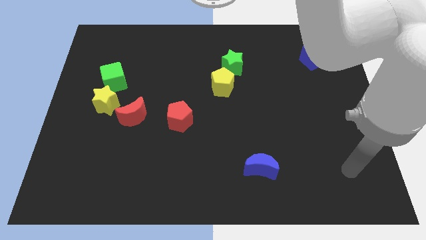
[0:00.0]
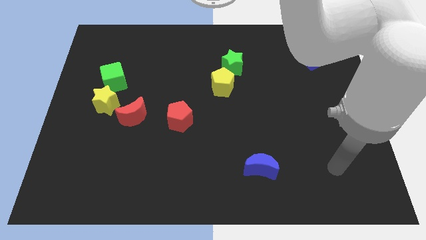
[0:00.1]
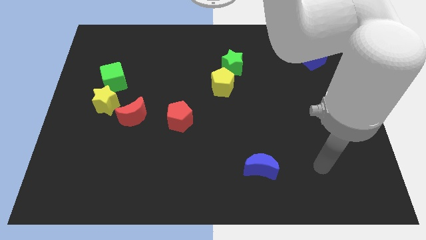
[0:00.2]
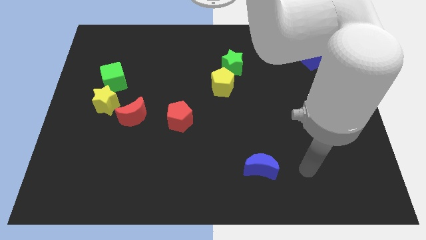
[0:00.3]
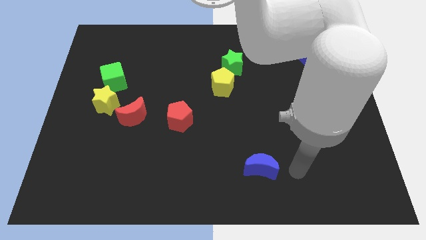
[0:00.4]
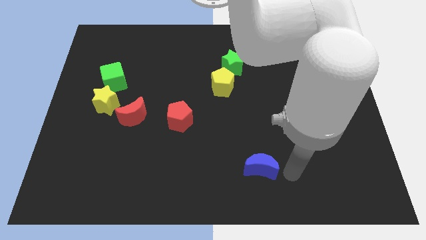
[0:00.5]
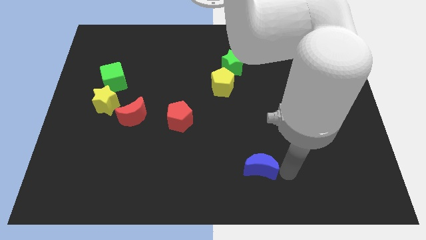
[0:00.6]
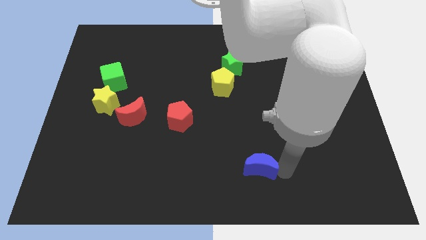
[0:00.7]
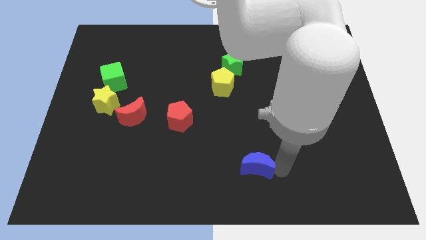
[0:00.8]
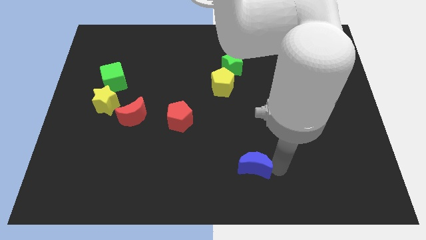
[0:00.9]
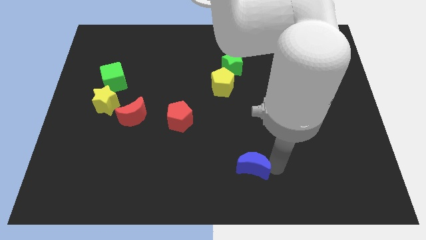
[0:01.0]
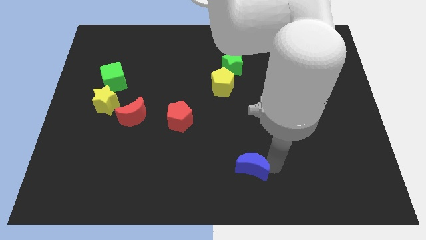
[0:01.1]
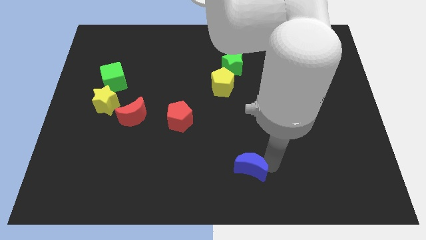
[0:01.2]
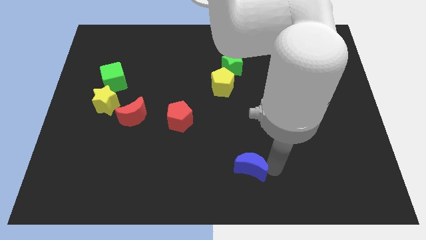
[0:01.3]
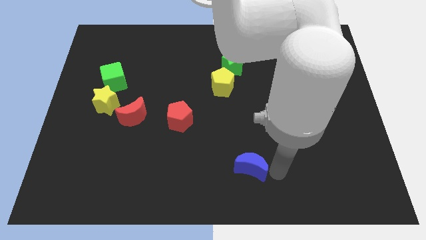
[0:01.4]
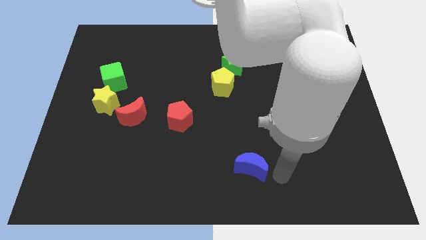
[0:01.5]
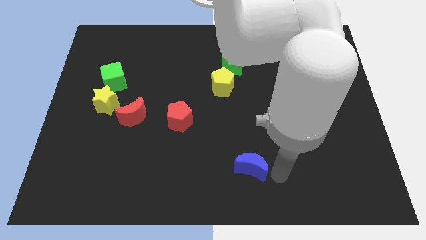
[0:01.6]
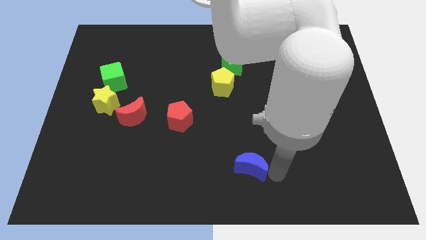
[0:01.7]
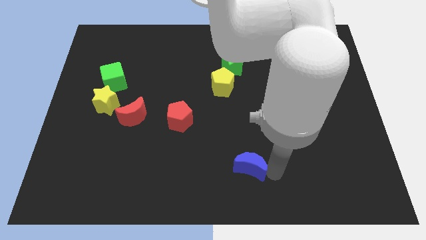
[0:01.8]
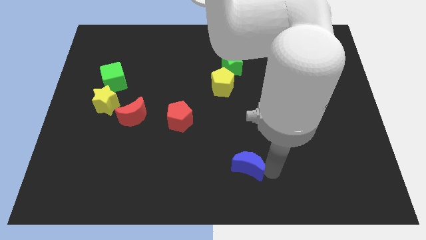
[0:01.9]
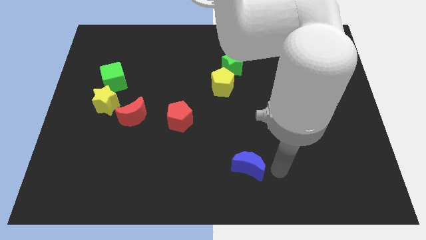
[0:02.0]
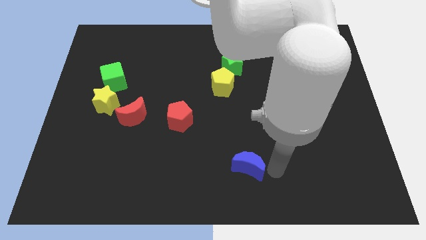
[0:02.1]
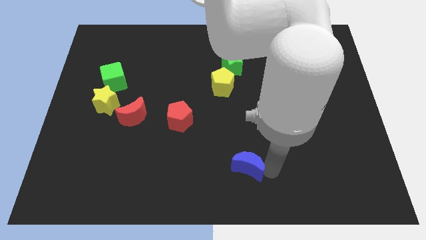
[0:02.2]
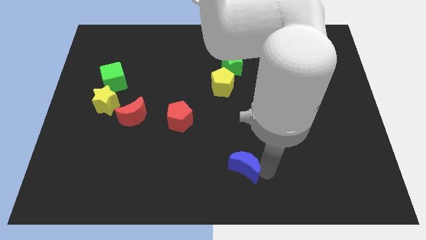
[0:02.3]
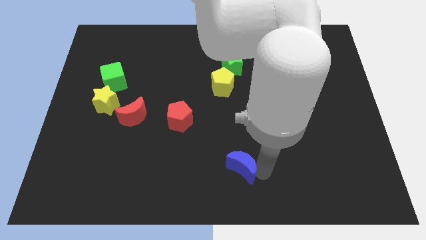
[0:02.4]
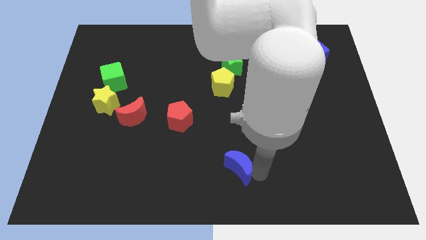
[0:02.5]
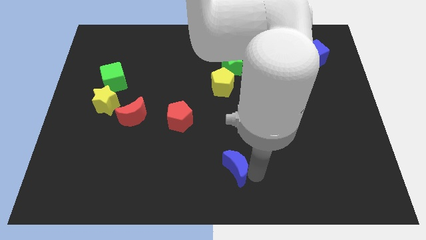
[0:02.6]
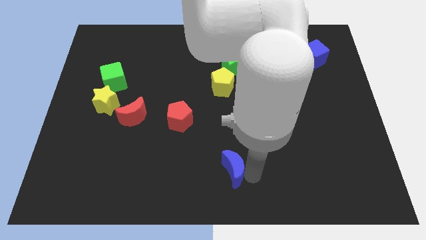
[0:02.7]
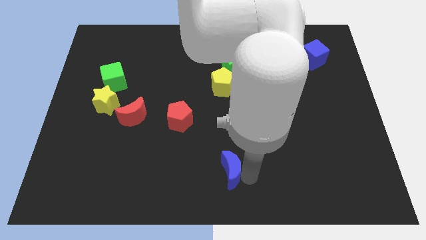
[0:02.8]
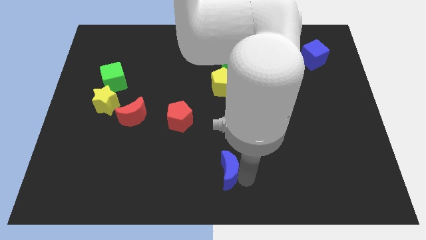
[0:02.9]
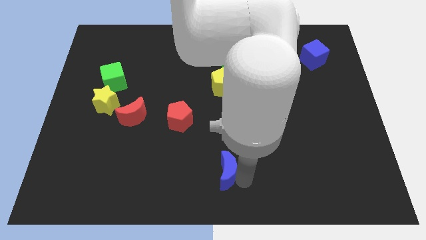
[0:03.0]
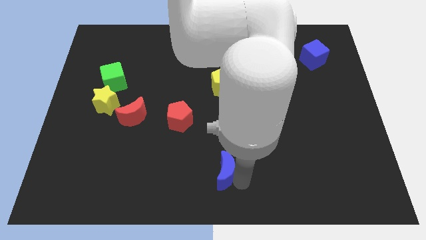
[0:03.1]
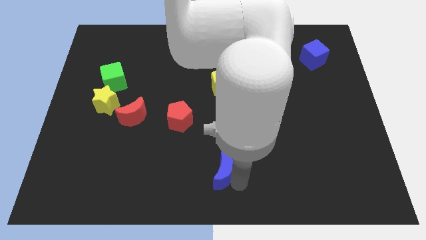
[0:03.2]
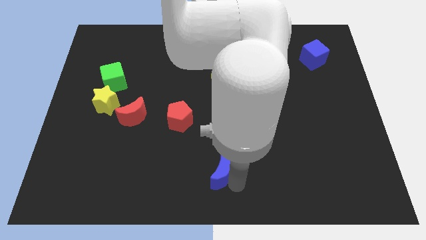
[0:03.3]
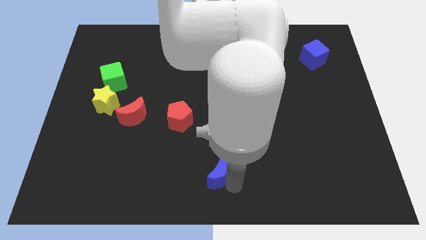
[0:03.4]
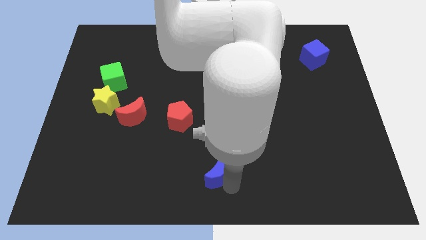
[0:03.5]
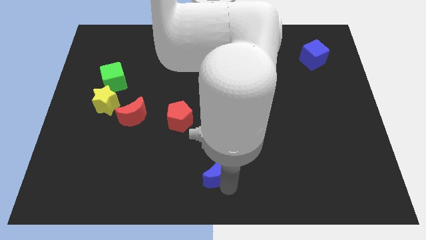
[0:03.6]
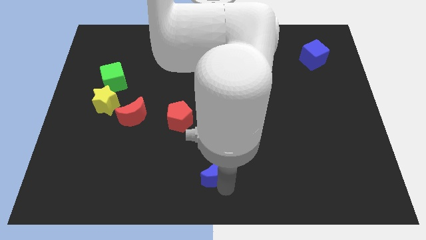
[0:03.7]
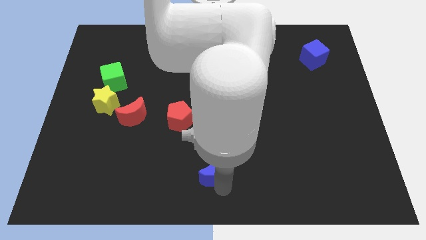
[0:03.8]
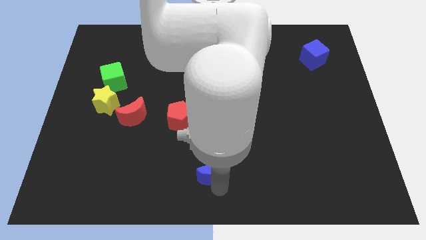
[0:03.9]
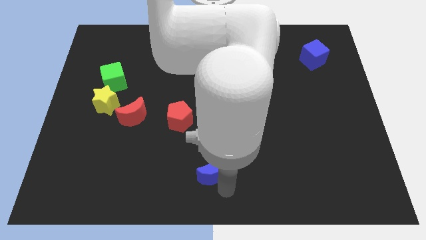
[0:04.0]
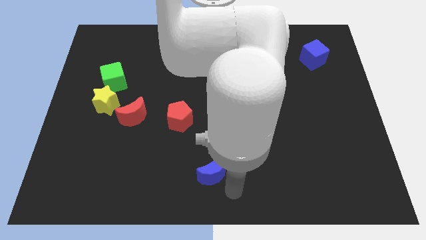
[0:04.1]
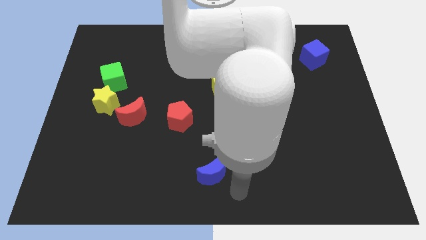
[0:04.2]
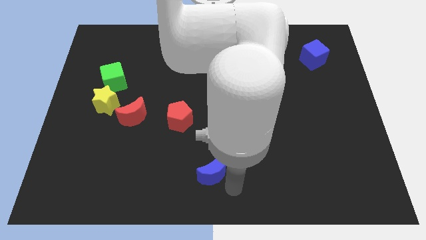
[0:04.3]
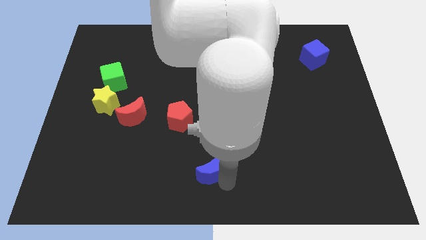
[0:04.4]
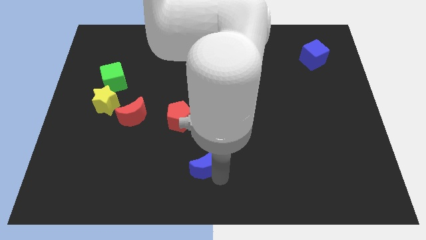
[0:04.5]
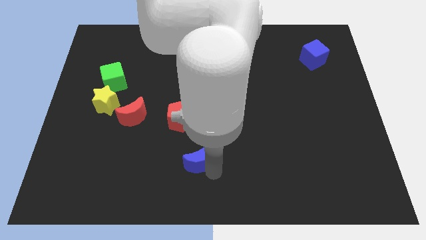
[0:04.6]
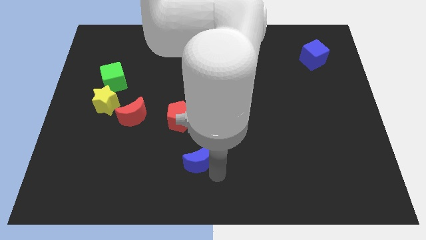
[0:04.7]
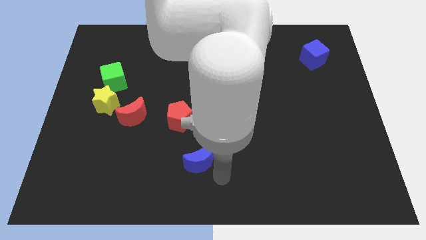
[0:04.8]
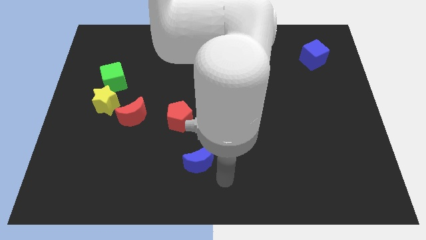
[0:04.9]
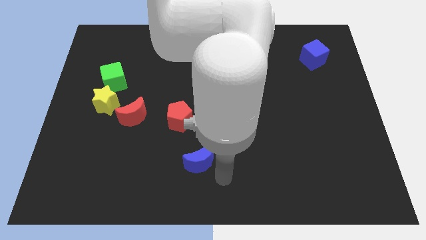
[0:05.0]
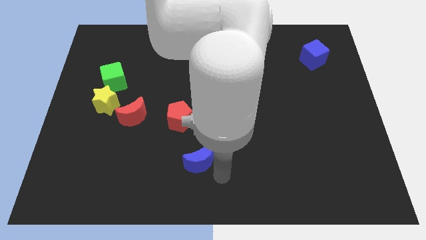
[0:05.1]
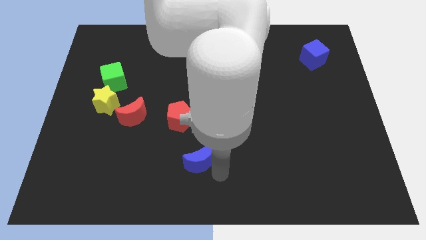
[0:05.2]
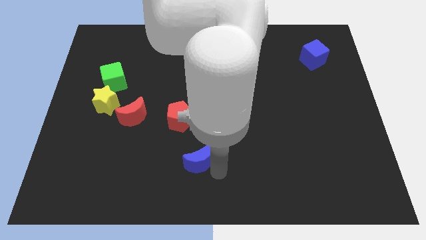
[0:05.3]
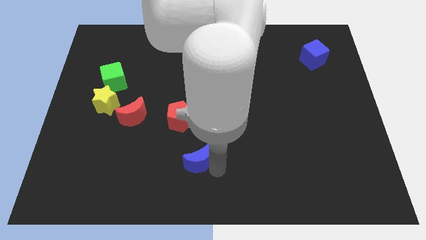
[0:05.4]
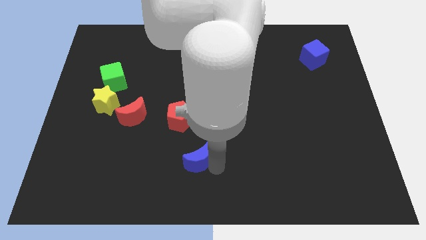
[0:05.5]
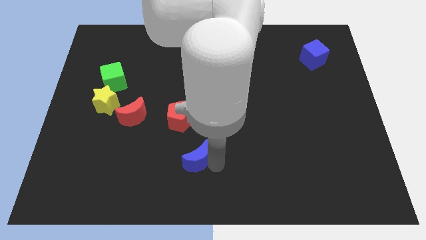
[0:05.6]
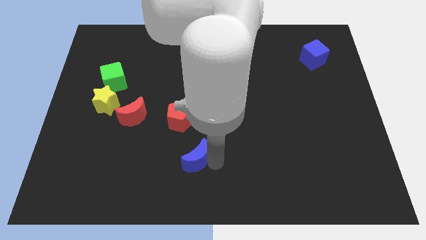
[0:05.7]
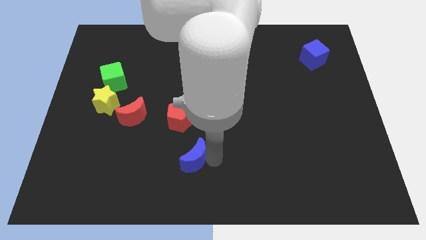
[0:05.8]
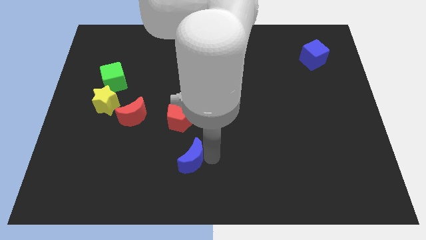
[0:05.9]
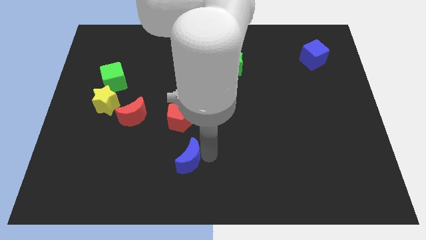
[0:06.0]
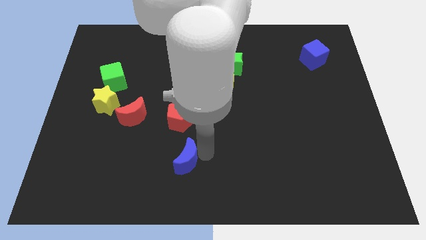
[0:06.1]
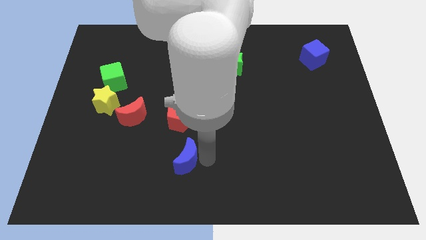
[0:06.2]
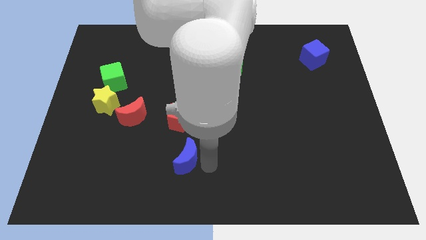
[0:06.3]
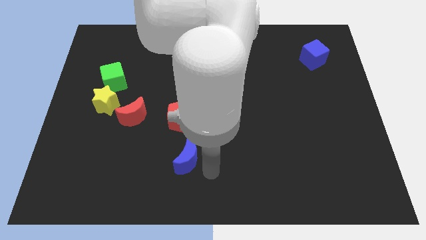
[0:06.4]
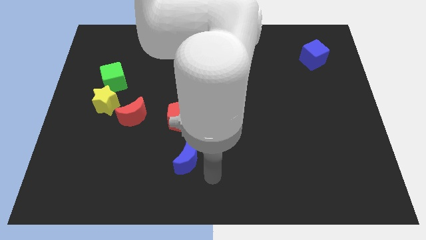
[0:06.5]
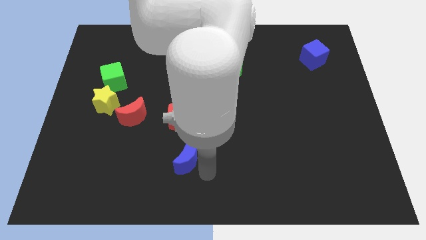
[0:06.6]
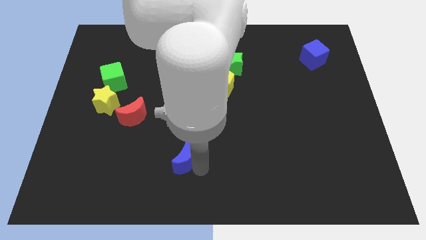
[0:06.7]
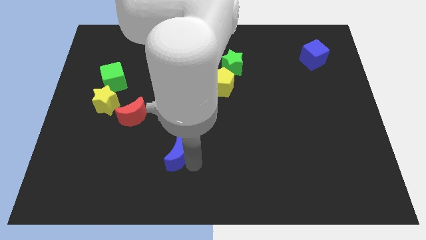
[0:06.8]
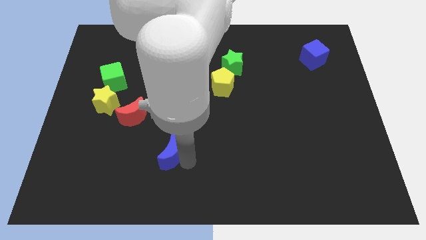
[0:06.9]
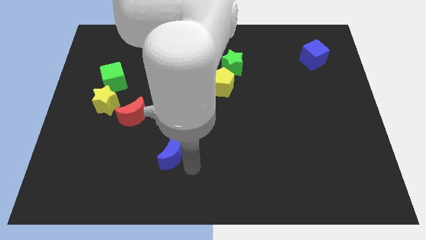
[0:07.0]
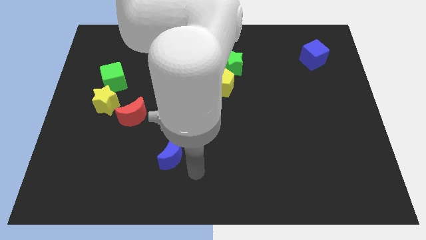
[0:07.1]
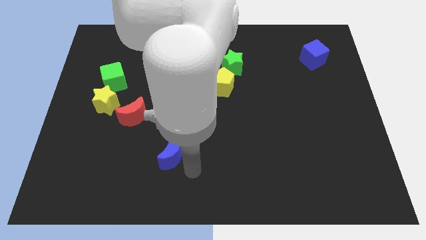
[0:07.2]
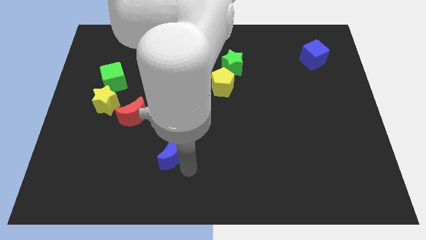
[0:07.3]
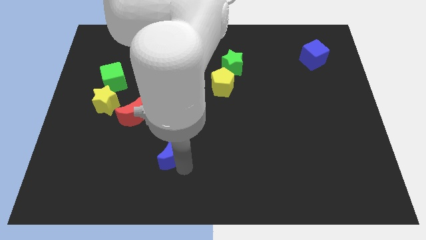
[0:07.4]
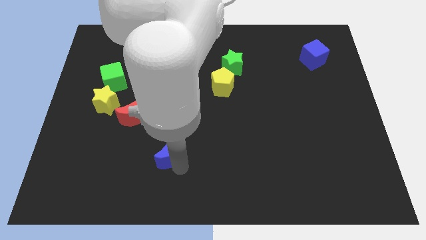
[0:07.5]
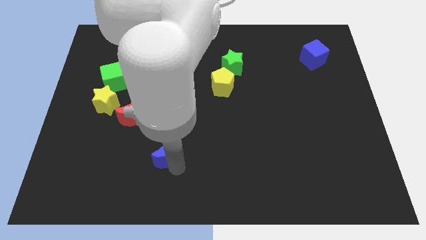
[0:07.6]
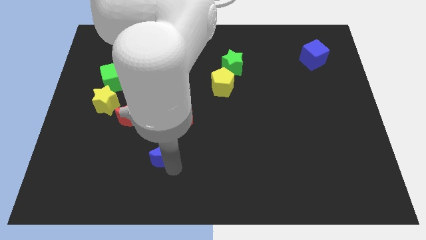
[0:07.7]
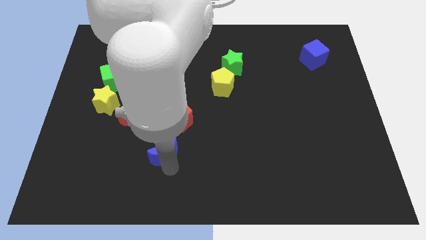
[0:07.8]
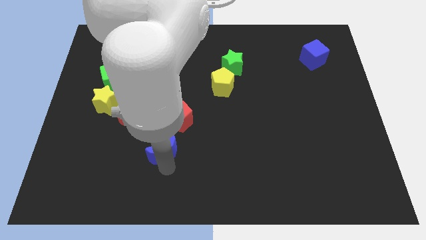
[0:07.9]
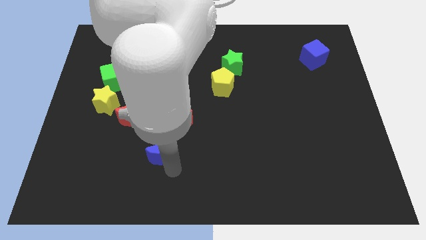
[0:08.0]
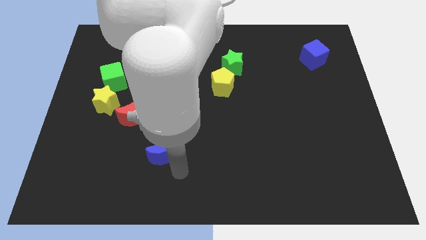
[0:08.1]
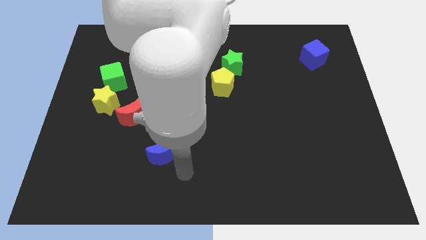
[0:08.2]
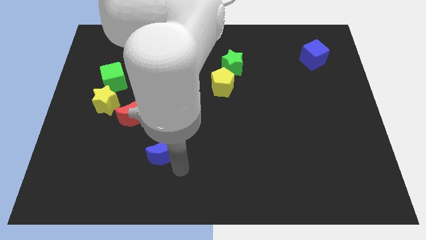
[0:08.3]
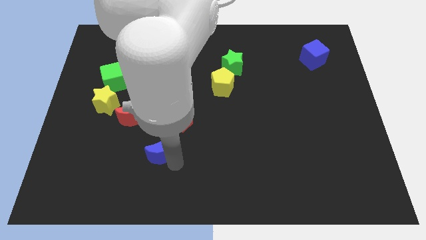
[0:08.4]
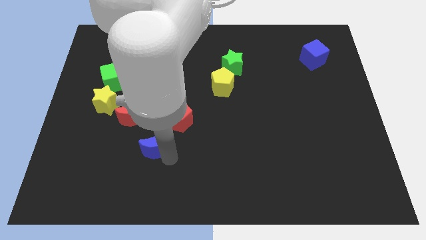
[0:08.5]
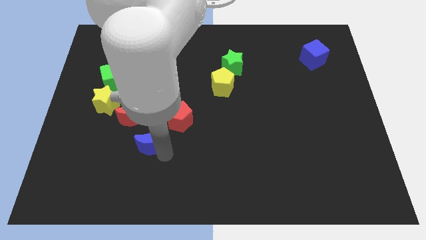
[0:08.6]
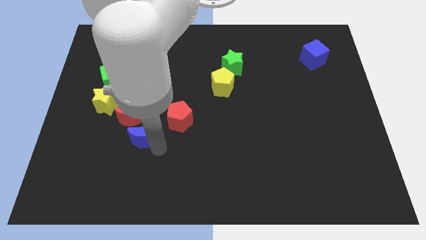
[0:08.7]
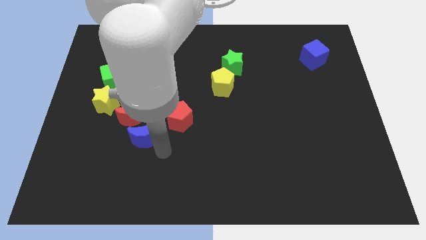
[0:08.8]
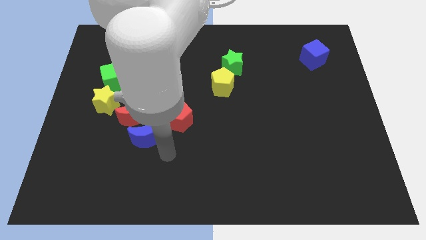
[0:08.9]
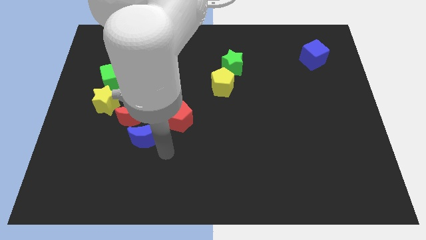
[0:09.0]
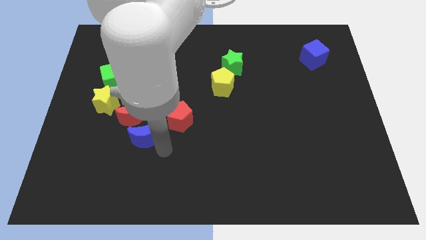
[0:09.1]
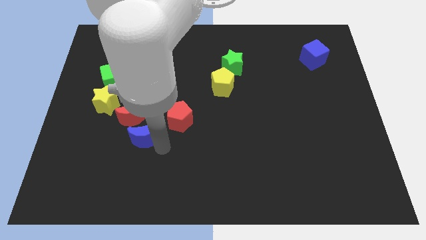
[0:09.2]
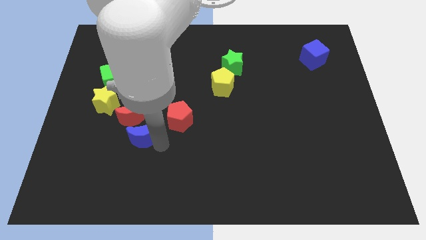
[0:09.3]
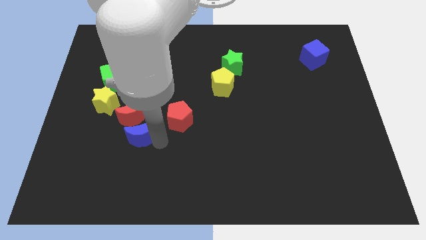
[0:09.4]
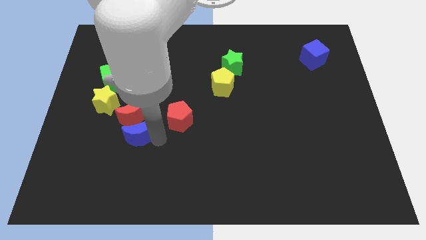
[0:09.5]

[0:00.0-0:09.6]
slide the blue moon diagonally down and to the right of the yellow star
